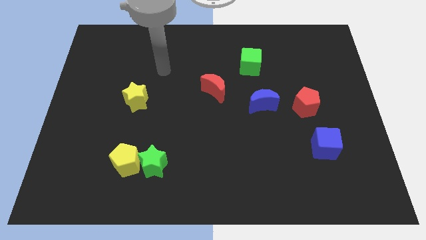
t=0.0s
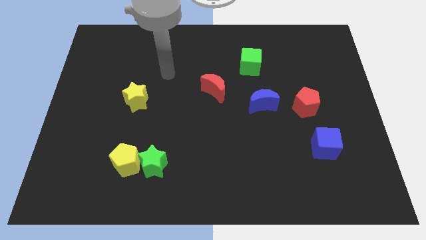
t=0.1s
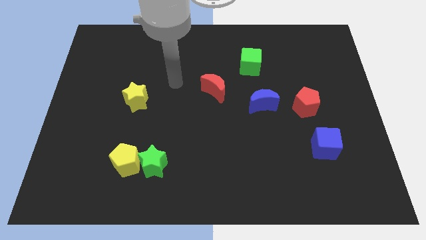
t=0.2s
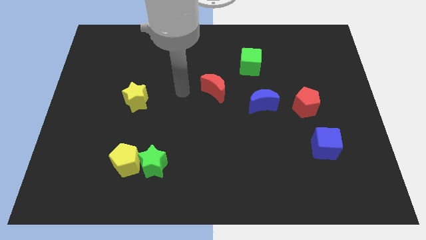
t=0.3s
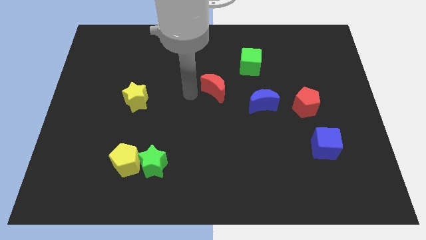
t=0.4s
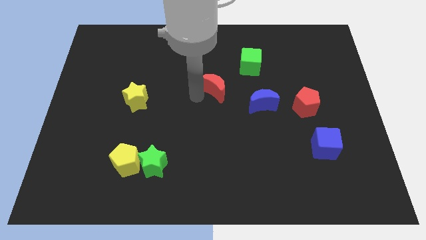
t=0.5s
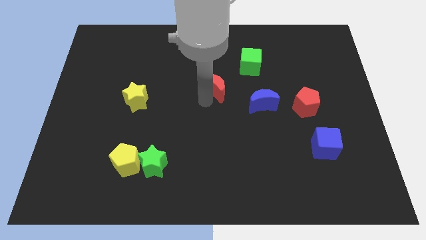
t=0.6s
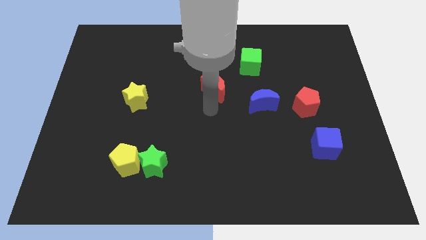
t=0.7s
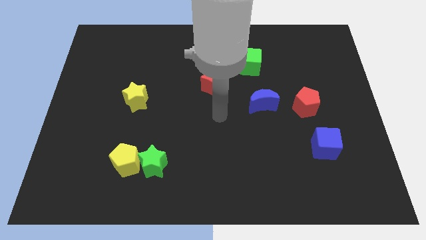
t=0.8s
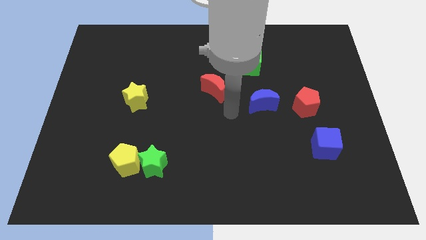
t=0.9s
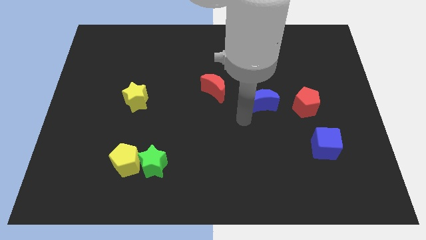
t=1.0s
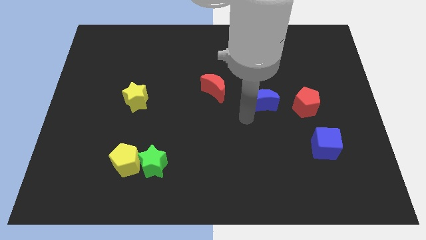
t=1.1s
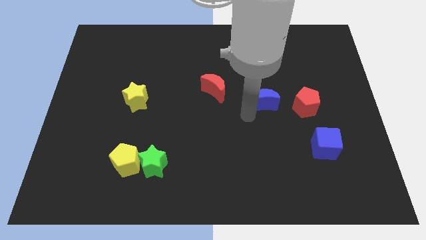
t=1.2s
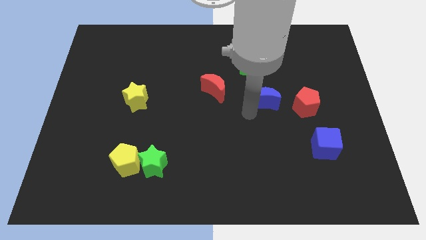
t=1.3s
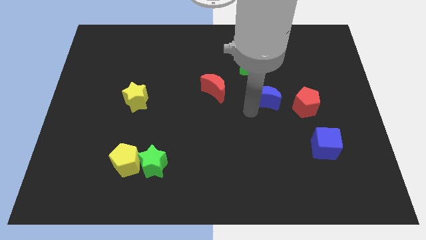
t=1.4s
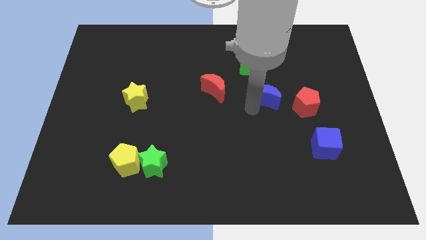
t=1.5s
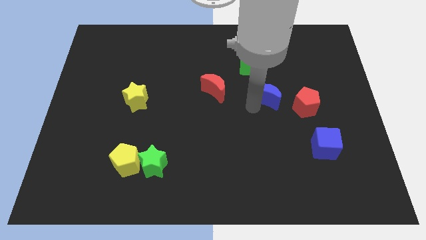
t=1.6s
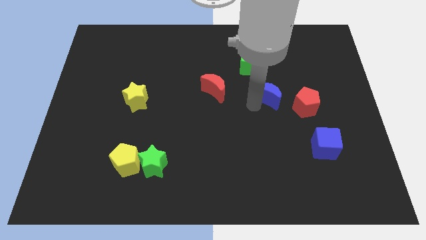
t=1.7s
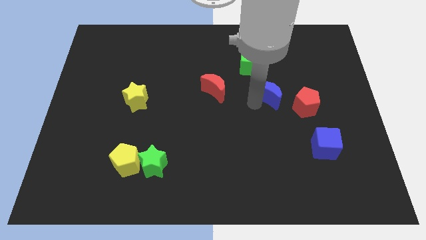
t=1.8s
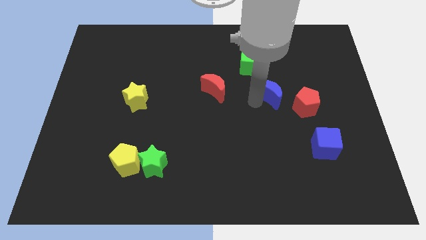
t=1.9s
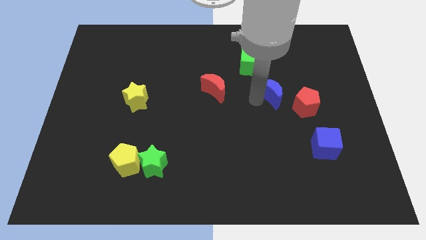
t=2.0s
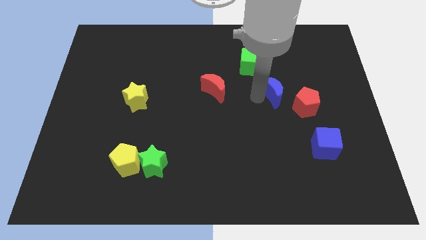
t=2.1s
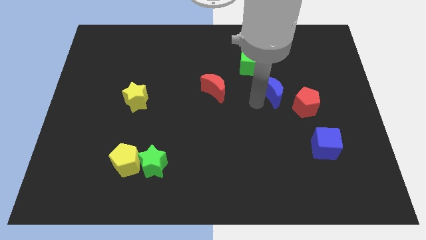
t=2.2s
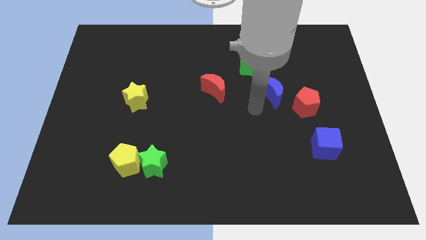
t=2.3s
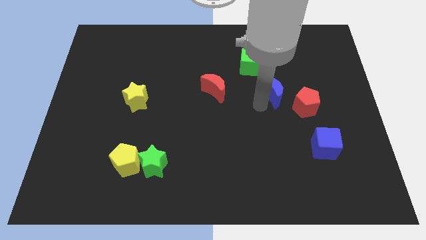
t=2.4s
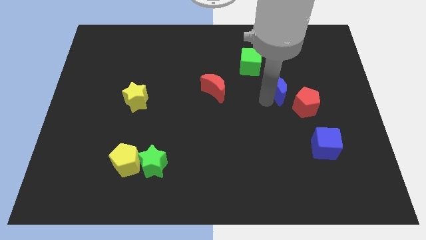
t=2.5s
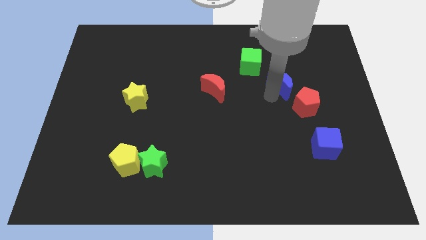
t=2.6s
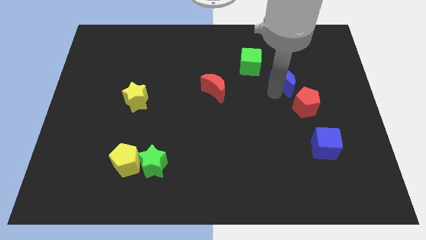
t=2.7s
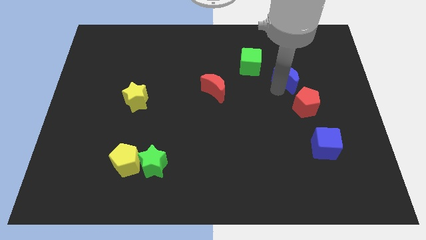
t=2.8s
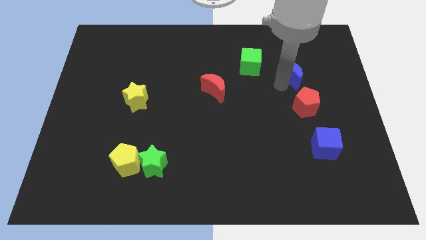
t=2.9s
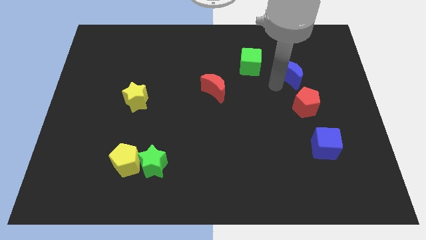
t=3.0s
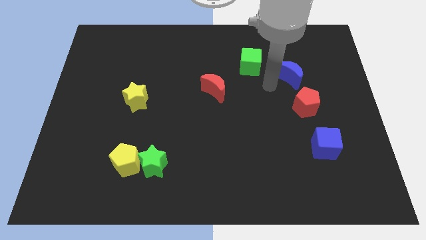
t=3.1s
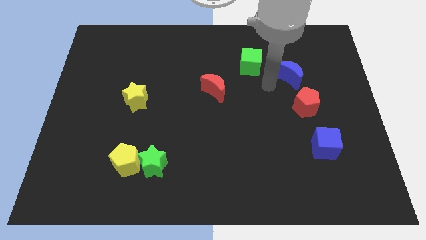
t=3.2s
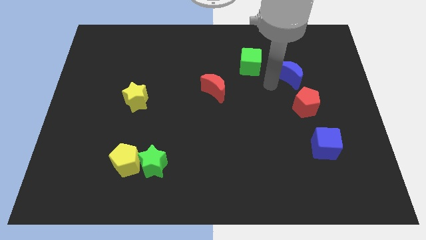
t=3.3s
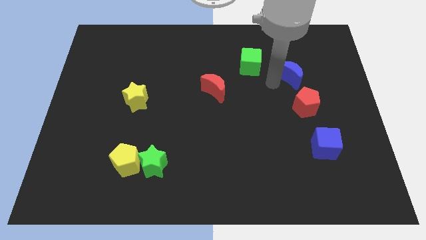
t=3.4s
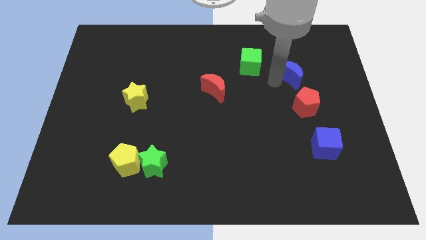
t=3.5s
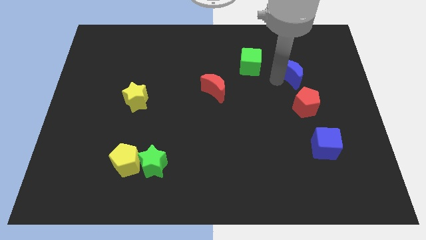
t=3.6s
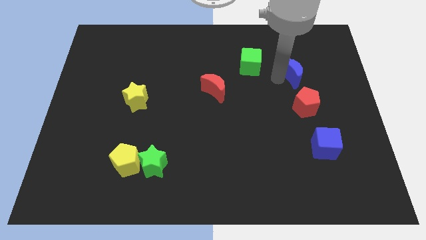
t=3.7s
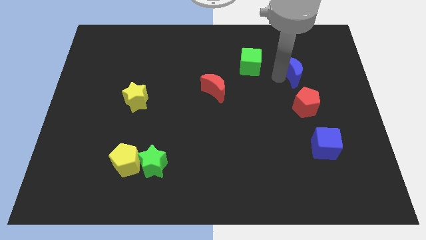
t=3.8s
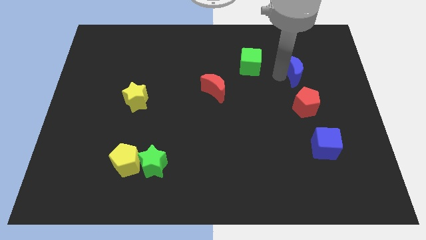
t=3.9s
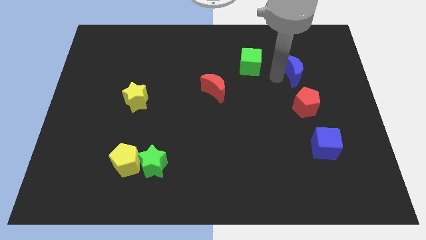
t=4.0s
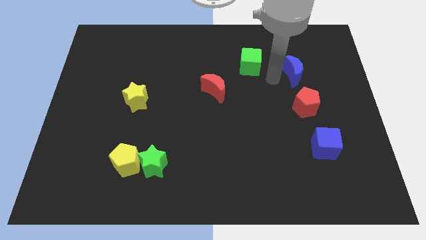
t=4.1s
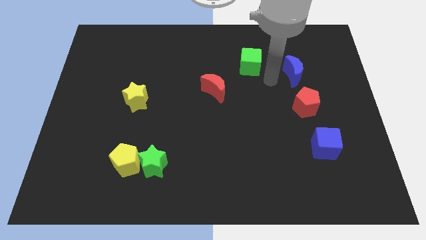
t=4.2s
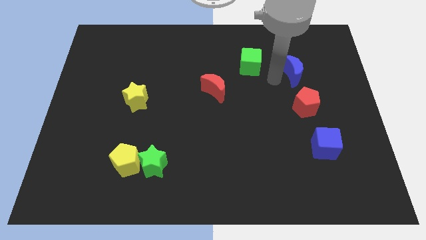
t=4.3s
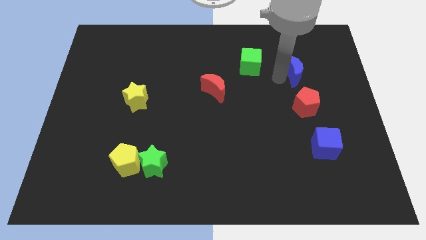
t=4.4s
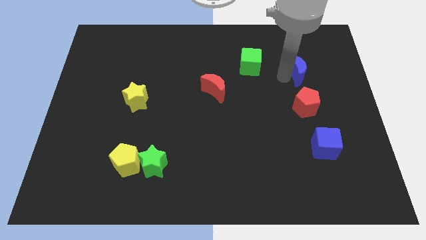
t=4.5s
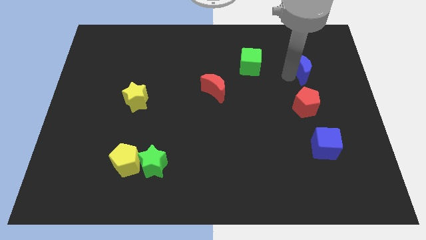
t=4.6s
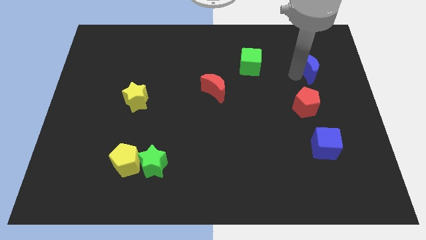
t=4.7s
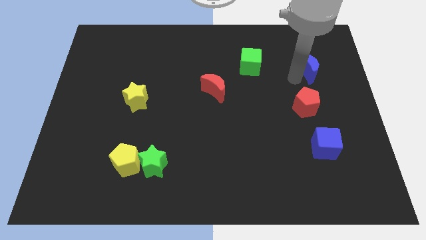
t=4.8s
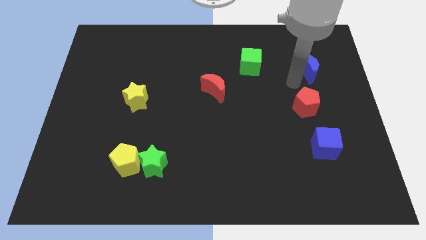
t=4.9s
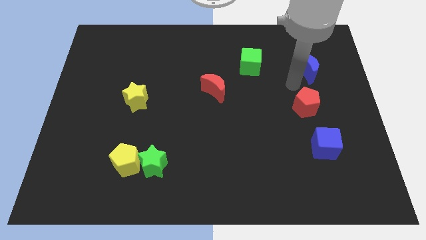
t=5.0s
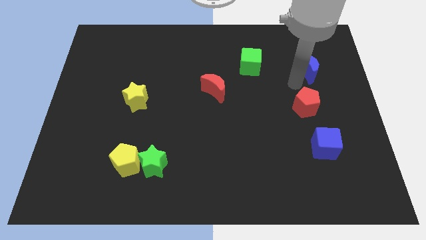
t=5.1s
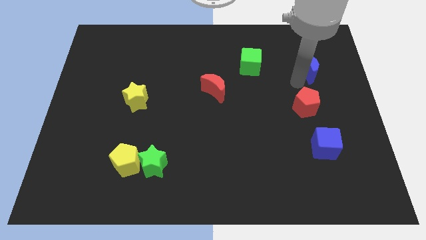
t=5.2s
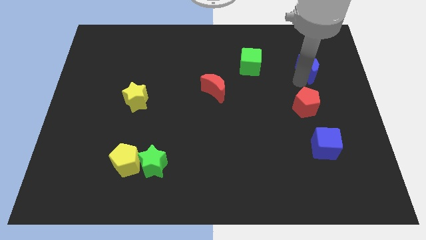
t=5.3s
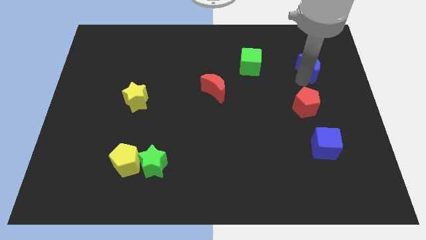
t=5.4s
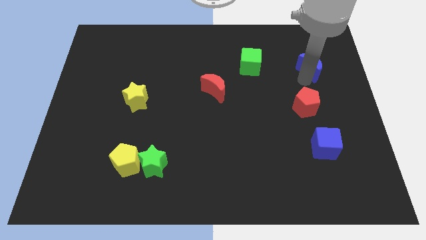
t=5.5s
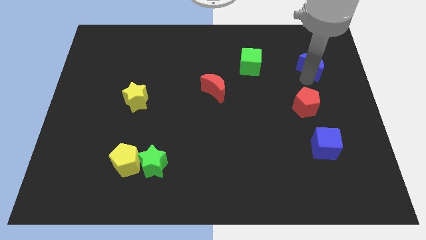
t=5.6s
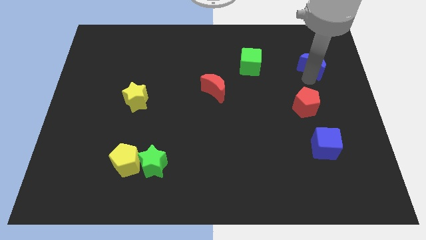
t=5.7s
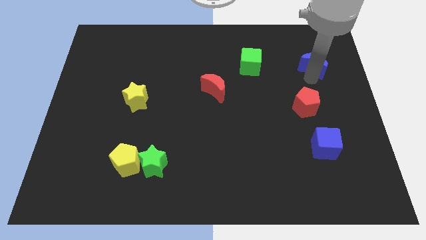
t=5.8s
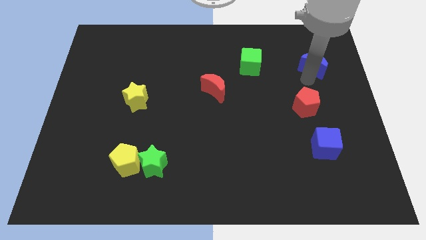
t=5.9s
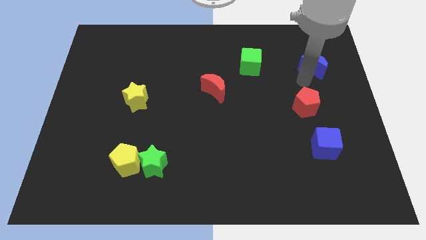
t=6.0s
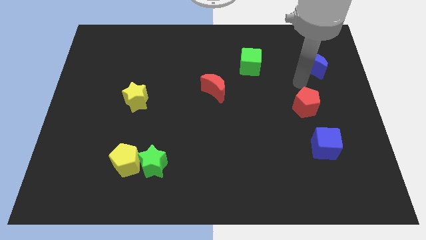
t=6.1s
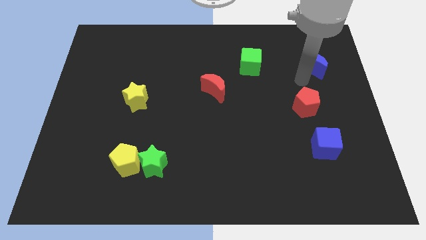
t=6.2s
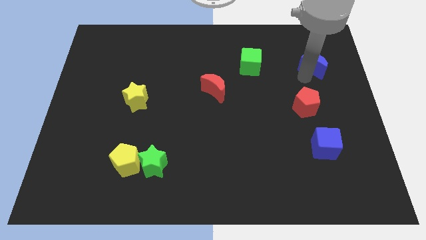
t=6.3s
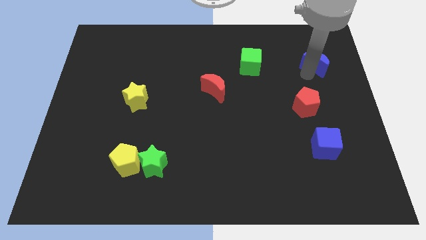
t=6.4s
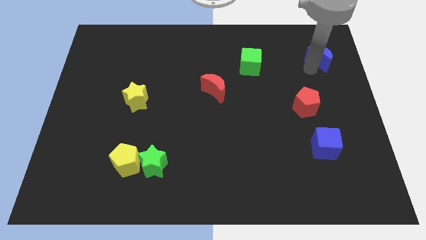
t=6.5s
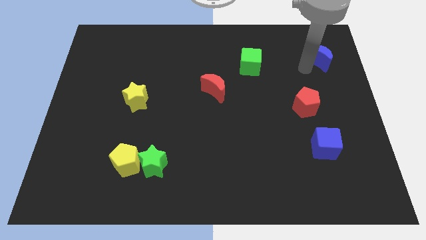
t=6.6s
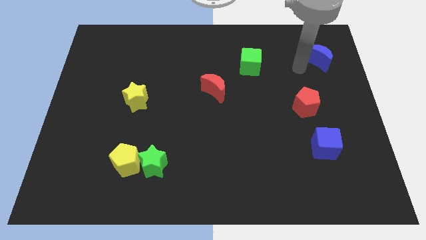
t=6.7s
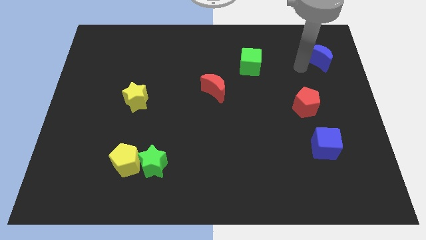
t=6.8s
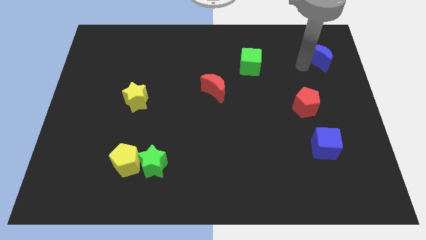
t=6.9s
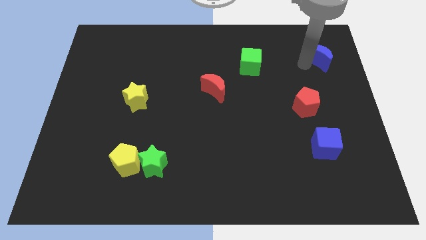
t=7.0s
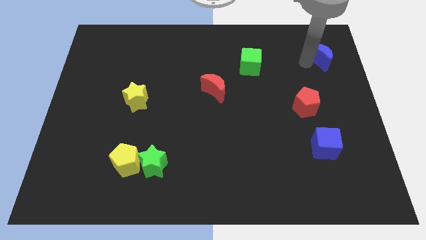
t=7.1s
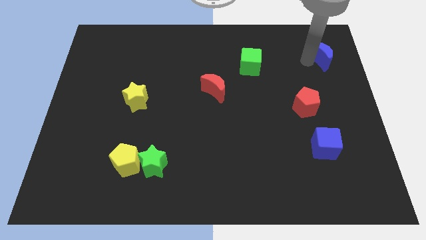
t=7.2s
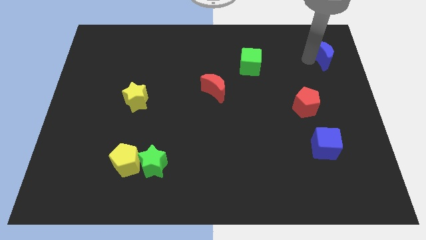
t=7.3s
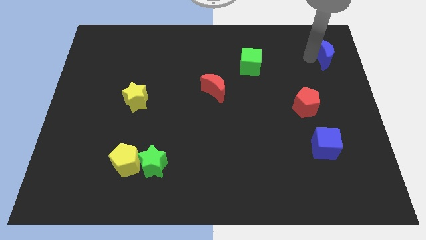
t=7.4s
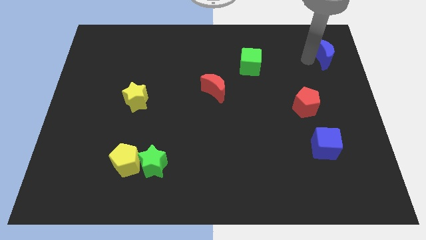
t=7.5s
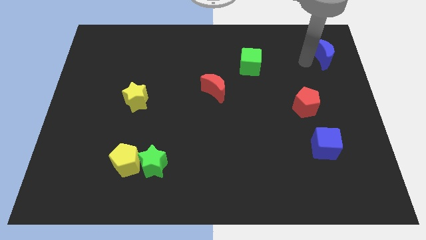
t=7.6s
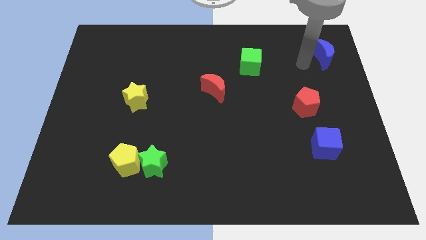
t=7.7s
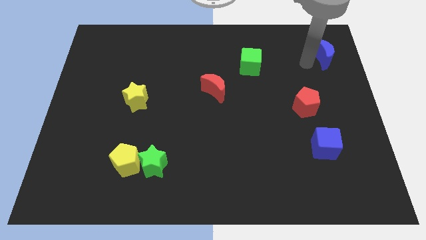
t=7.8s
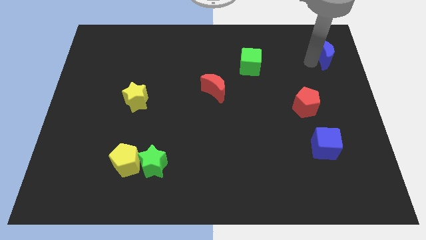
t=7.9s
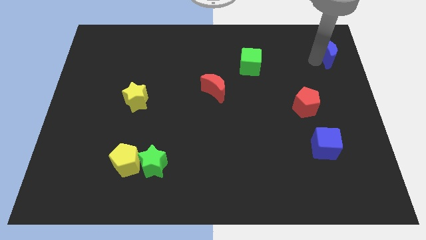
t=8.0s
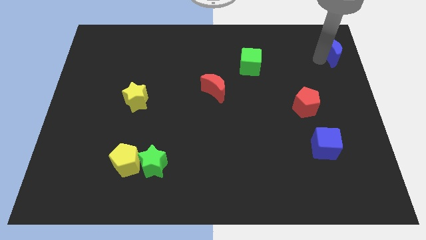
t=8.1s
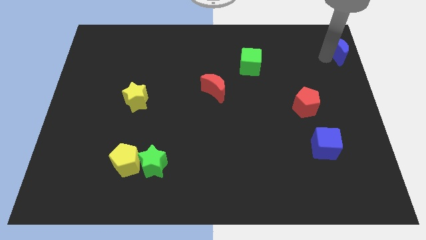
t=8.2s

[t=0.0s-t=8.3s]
put the blue moon to the top right corner
